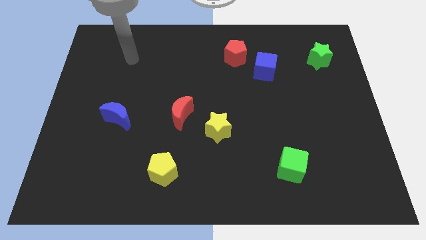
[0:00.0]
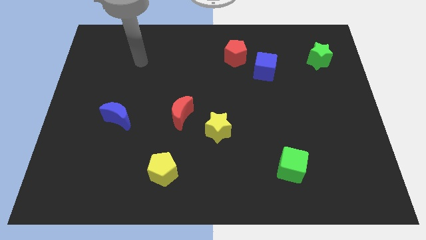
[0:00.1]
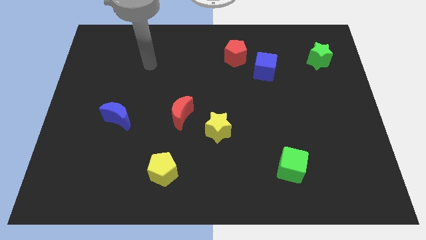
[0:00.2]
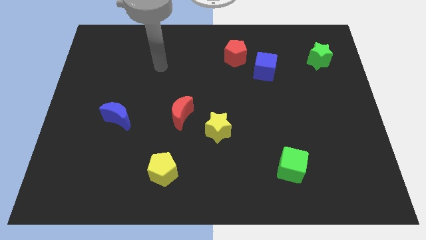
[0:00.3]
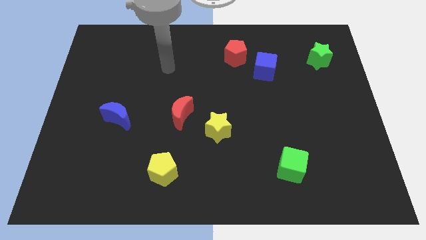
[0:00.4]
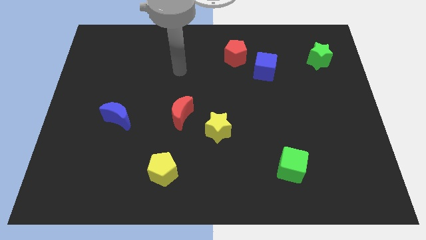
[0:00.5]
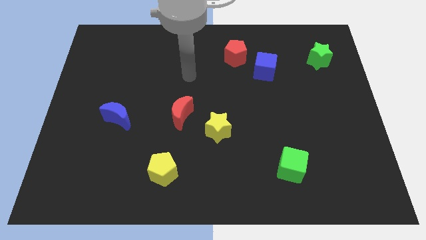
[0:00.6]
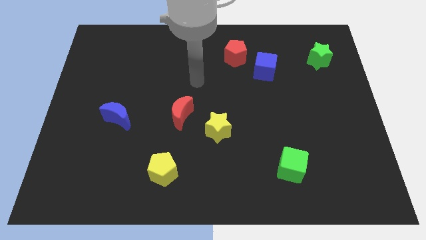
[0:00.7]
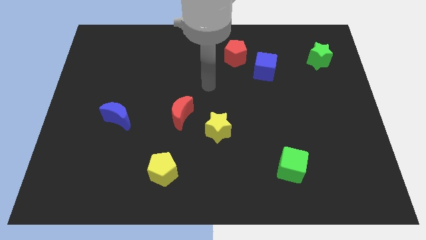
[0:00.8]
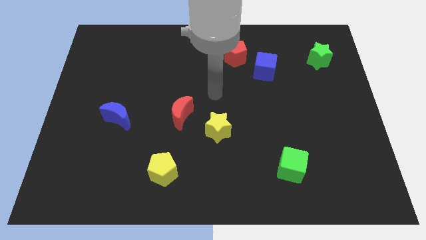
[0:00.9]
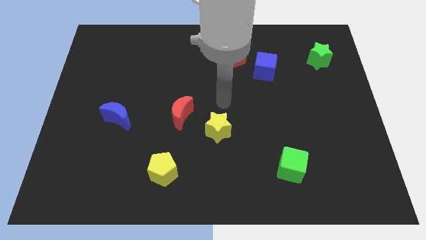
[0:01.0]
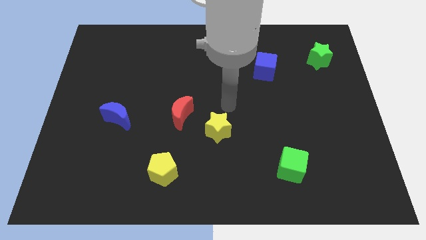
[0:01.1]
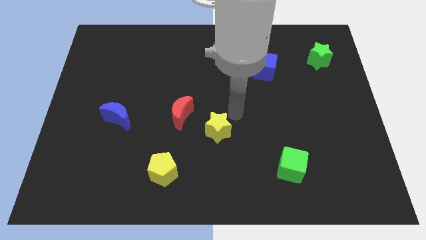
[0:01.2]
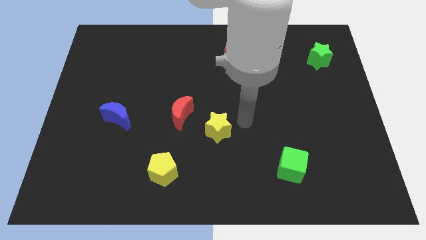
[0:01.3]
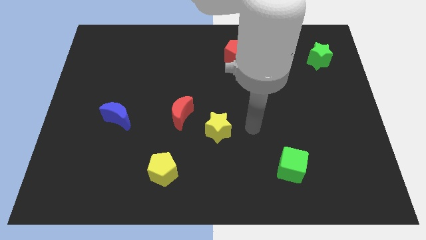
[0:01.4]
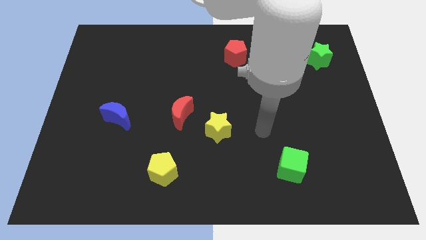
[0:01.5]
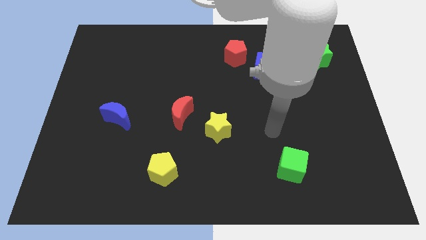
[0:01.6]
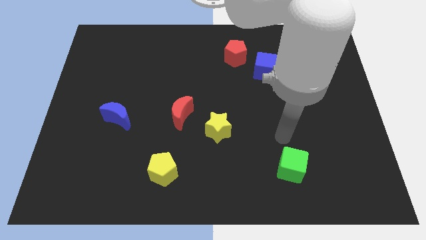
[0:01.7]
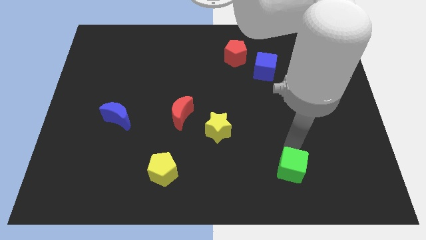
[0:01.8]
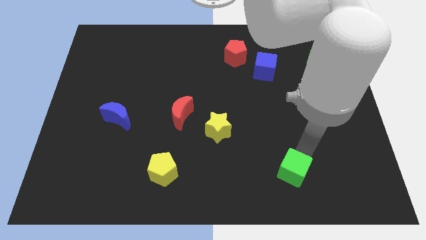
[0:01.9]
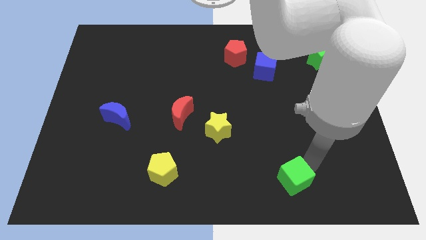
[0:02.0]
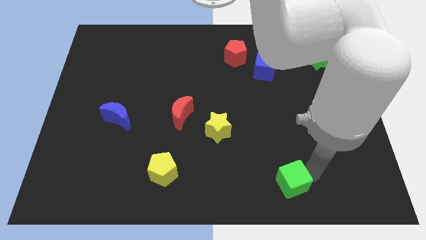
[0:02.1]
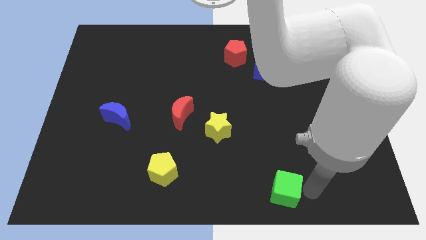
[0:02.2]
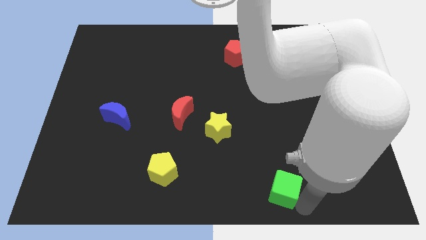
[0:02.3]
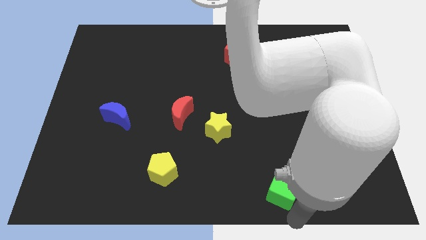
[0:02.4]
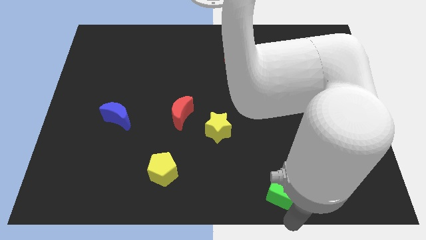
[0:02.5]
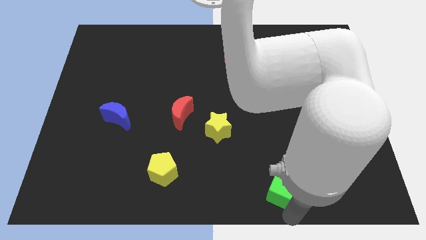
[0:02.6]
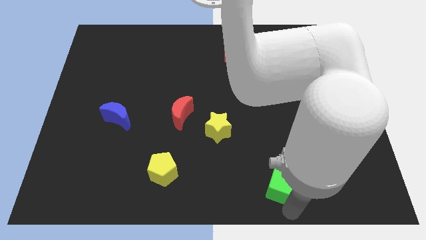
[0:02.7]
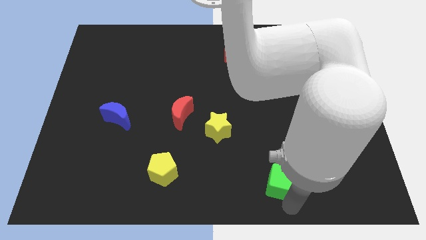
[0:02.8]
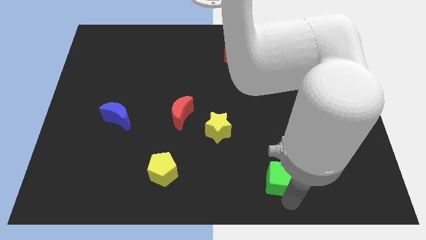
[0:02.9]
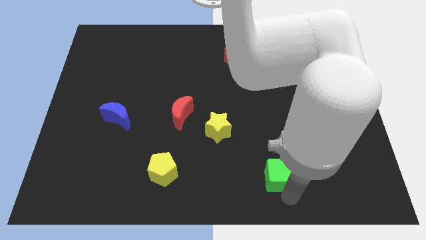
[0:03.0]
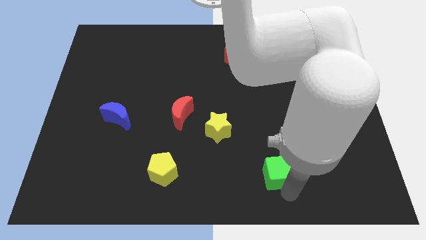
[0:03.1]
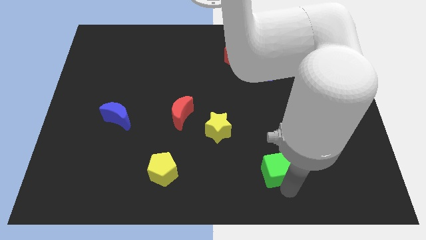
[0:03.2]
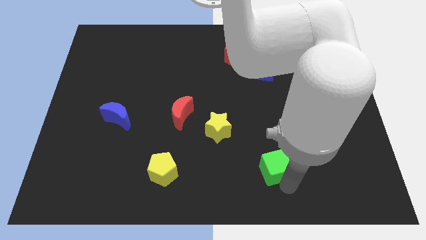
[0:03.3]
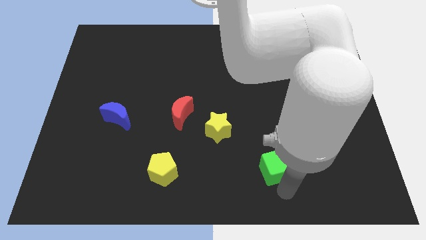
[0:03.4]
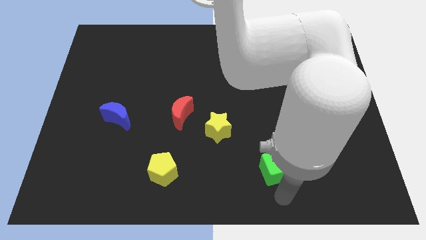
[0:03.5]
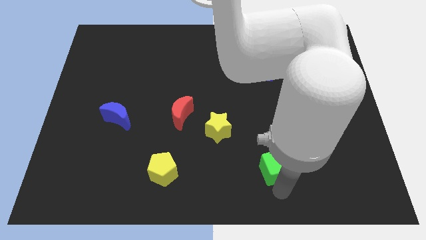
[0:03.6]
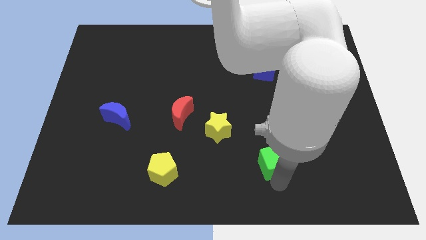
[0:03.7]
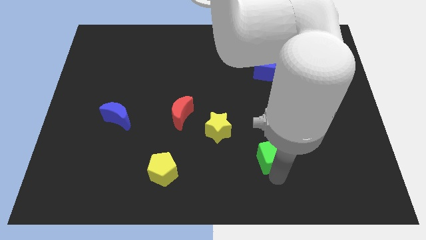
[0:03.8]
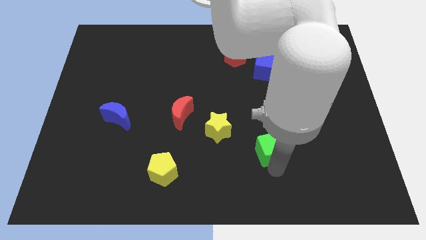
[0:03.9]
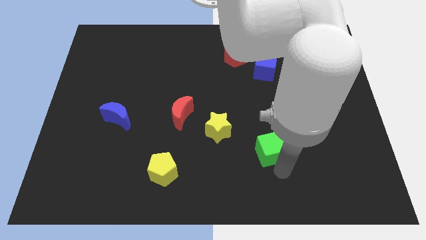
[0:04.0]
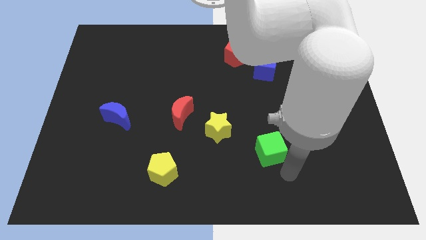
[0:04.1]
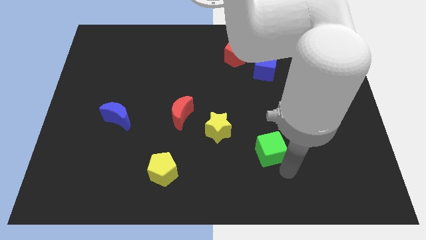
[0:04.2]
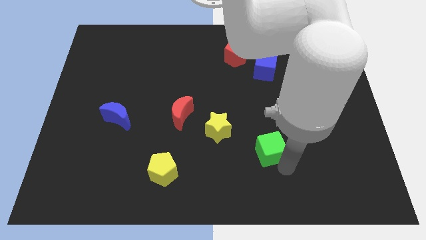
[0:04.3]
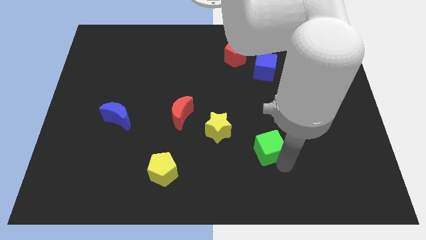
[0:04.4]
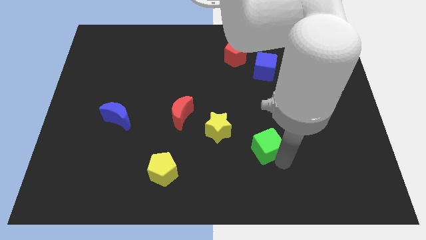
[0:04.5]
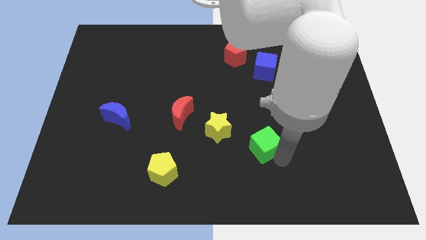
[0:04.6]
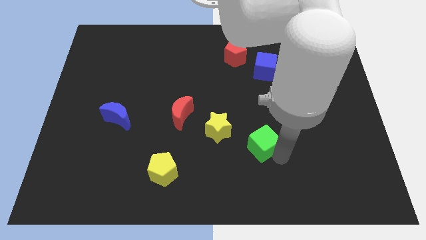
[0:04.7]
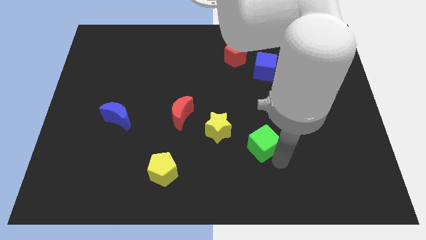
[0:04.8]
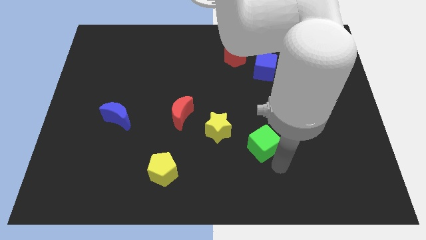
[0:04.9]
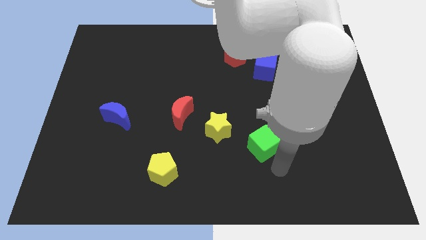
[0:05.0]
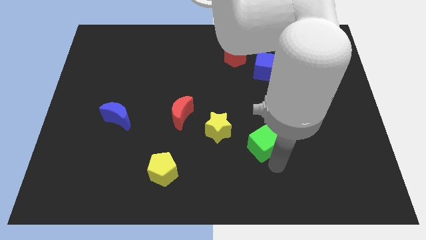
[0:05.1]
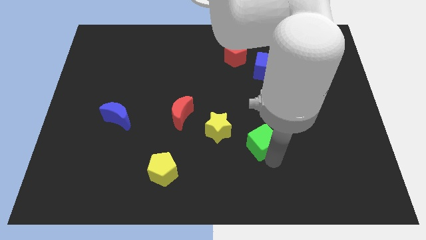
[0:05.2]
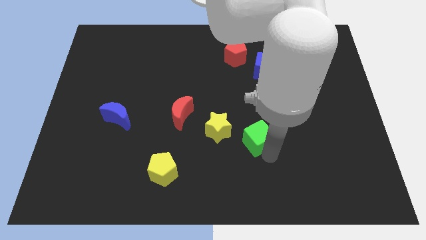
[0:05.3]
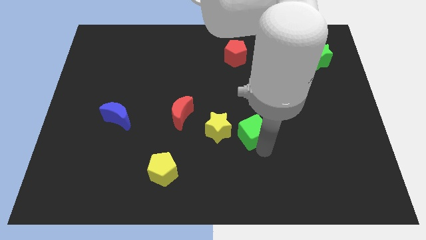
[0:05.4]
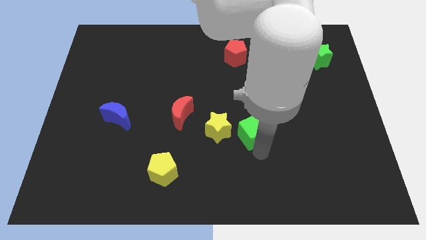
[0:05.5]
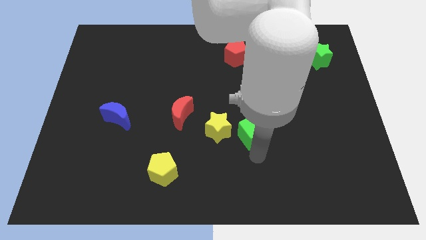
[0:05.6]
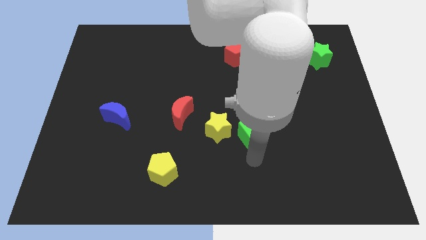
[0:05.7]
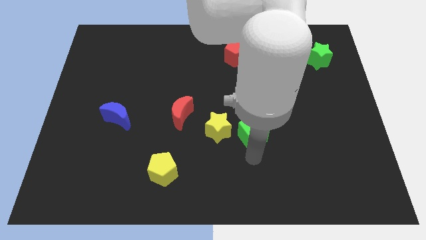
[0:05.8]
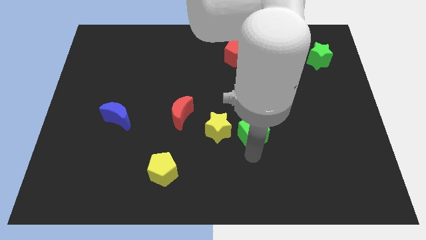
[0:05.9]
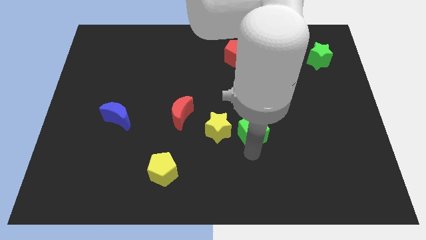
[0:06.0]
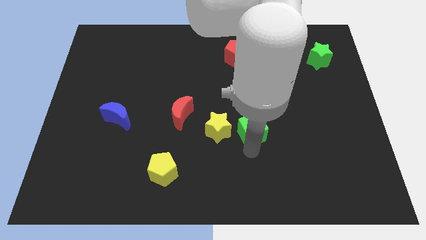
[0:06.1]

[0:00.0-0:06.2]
move the green cube to the center of the board

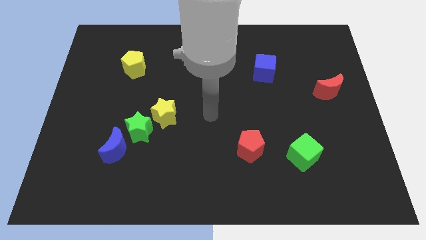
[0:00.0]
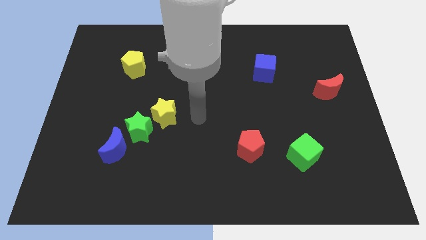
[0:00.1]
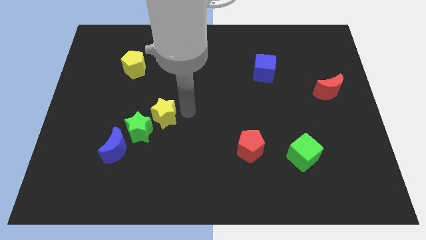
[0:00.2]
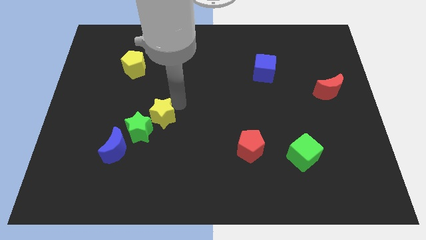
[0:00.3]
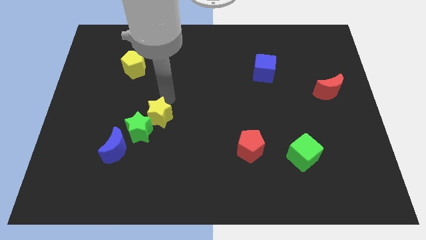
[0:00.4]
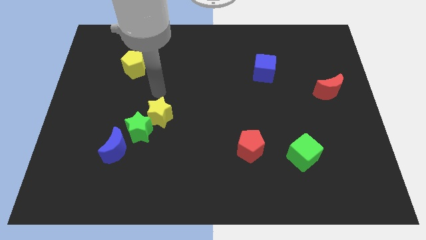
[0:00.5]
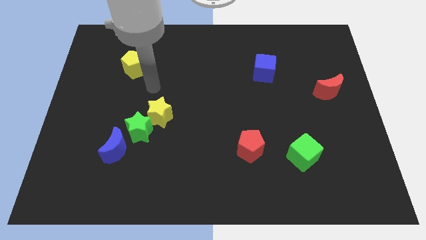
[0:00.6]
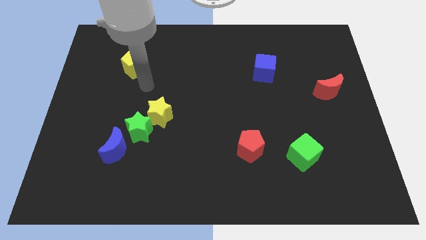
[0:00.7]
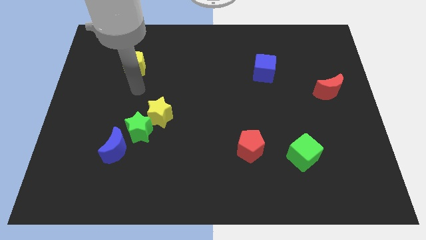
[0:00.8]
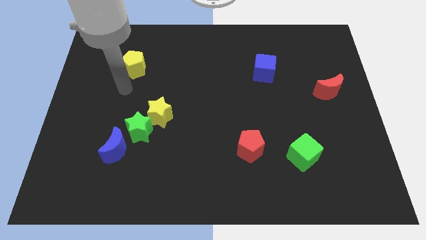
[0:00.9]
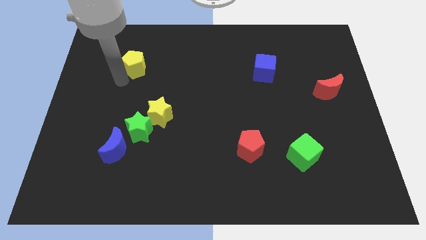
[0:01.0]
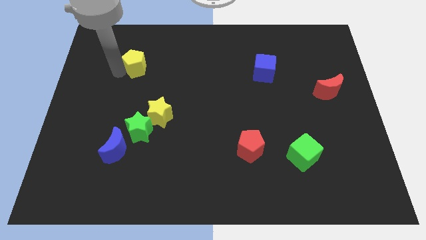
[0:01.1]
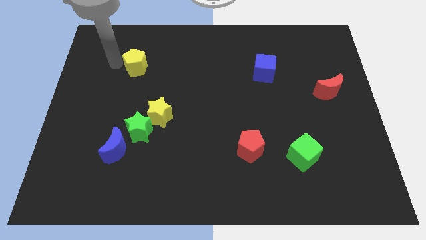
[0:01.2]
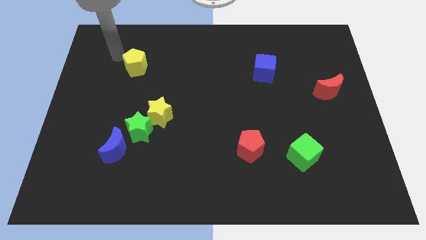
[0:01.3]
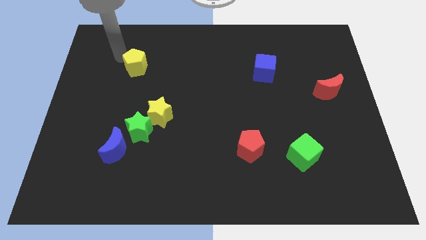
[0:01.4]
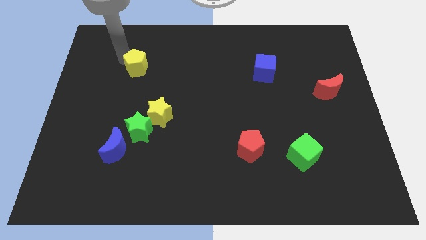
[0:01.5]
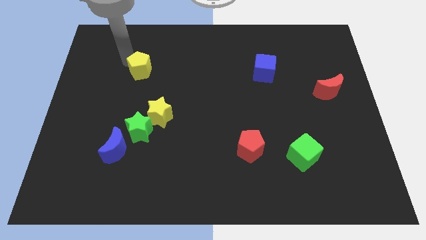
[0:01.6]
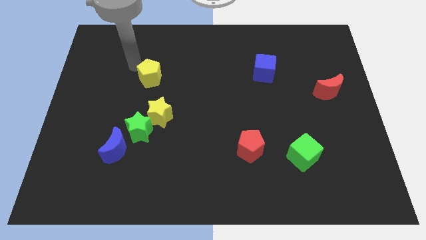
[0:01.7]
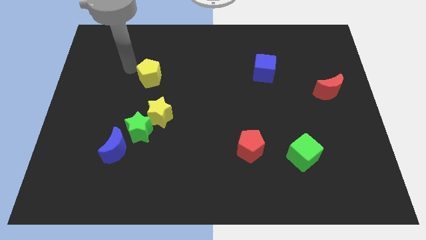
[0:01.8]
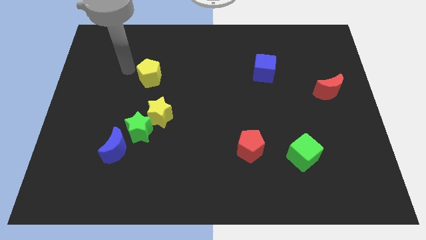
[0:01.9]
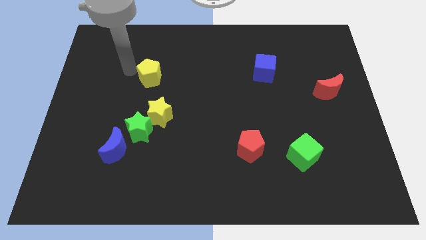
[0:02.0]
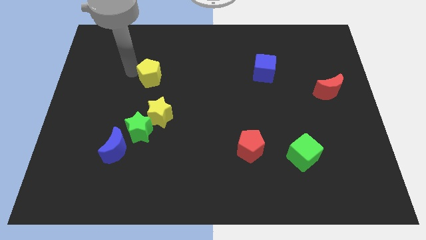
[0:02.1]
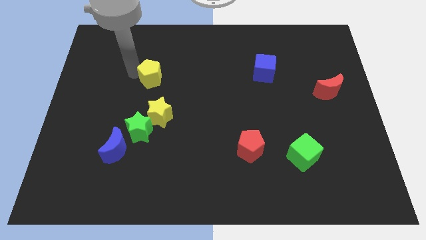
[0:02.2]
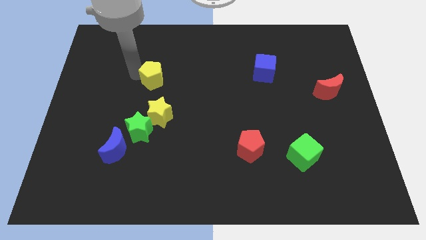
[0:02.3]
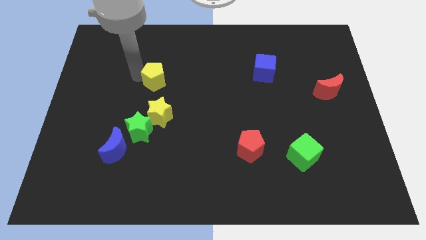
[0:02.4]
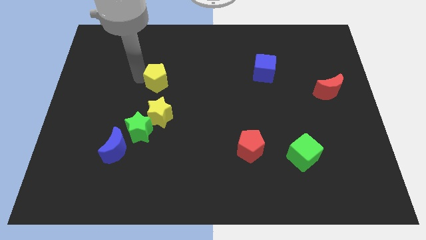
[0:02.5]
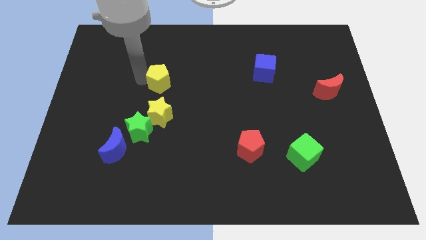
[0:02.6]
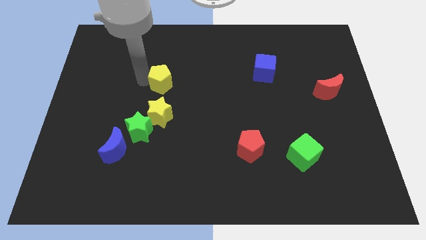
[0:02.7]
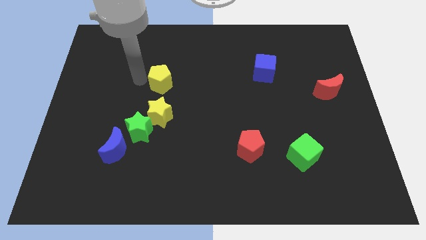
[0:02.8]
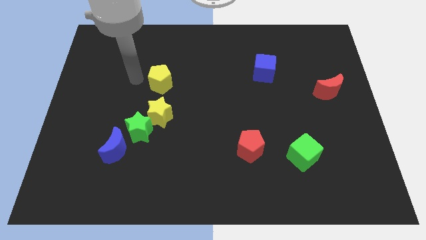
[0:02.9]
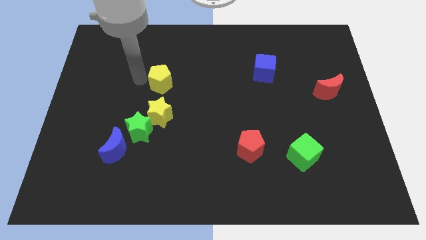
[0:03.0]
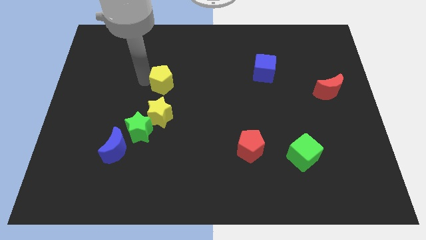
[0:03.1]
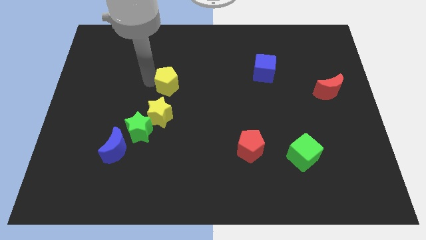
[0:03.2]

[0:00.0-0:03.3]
move the yellow pentagon to the center of the board
